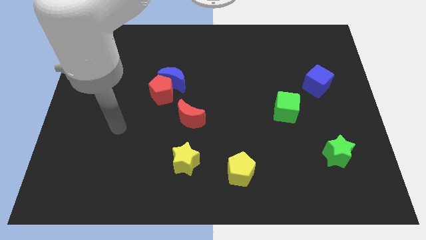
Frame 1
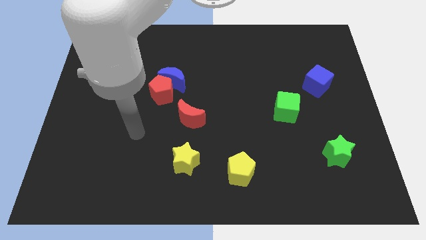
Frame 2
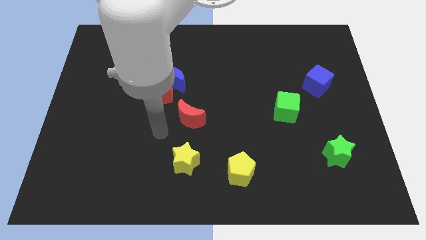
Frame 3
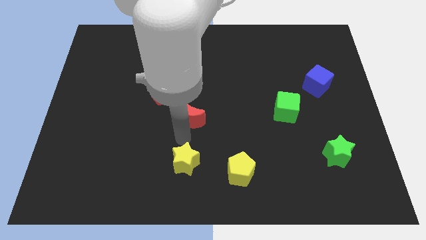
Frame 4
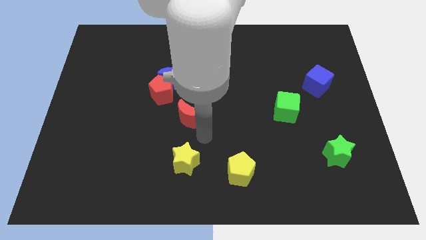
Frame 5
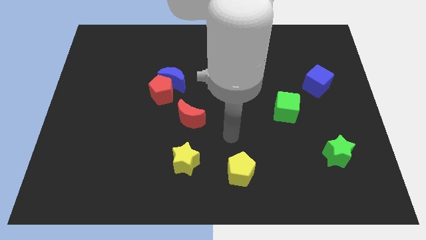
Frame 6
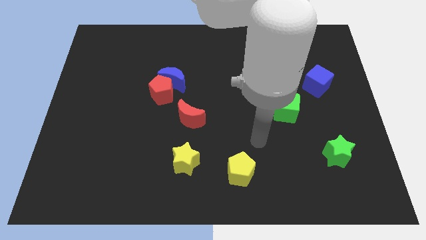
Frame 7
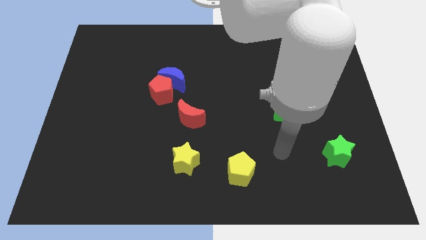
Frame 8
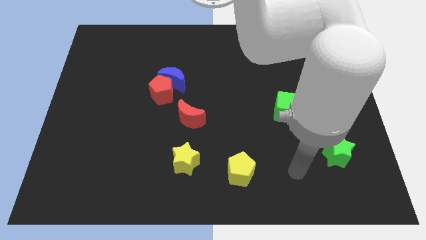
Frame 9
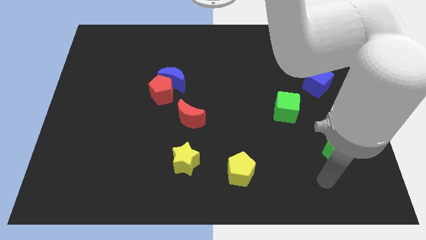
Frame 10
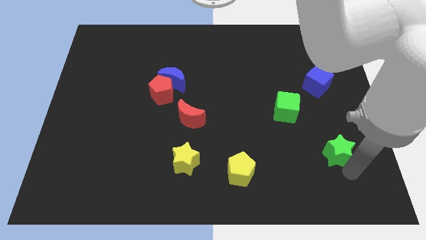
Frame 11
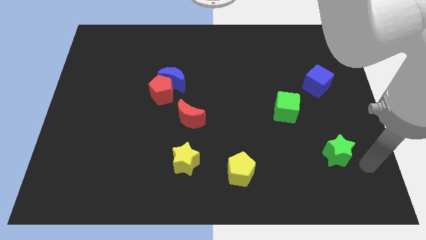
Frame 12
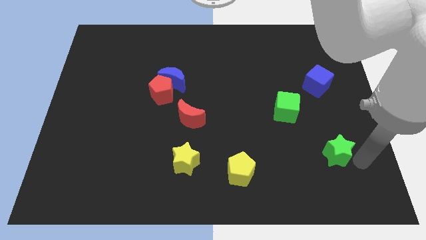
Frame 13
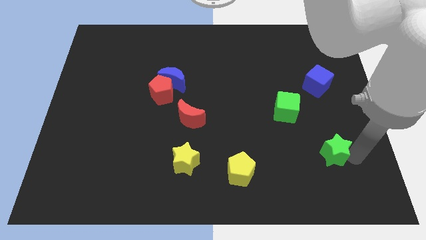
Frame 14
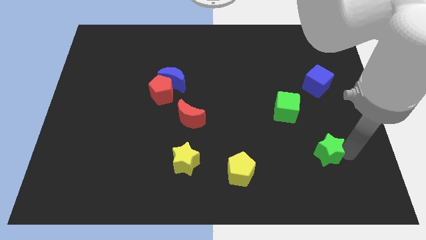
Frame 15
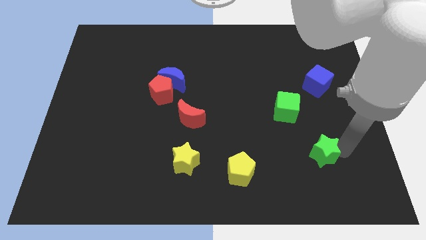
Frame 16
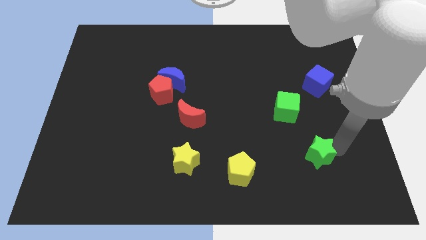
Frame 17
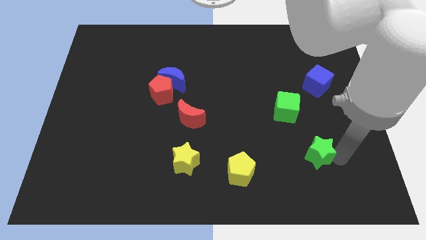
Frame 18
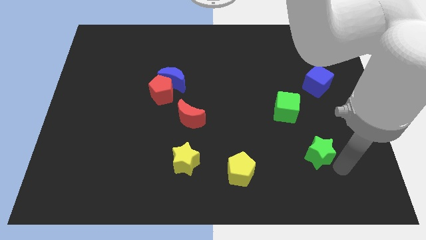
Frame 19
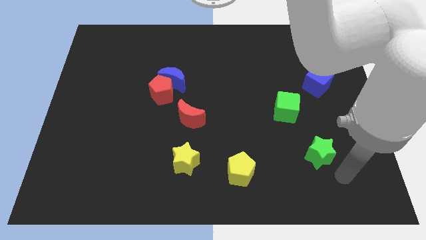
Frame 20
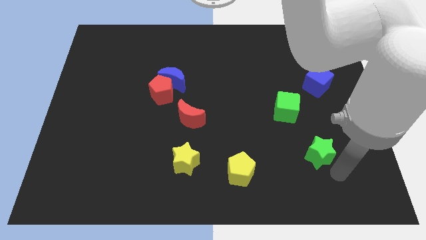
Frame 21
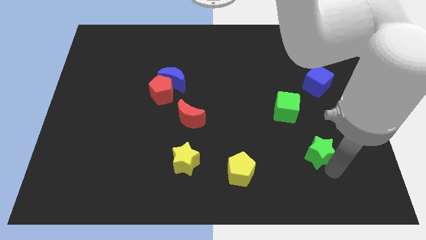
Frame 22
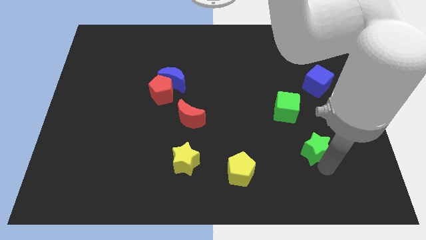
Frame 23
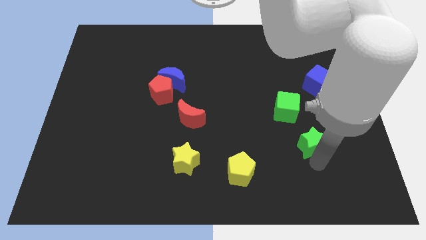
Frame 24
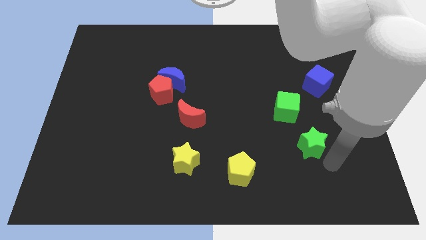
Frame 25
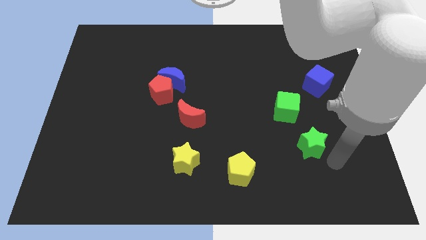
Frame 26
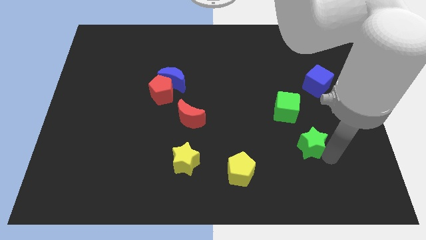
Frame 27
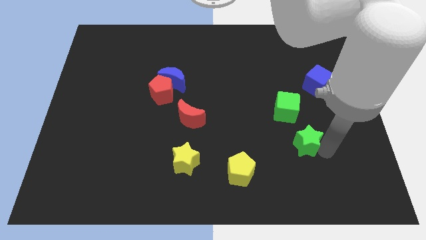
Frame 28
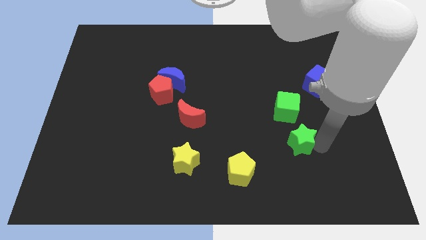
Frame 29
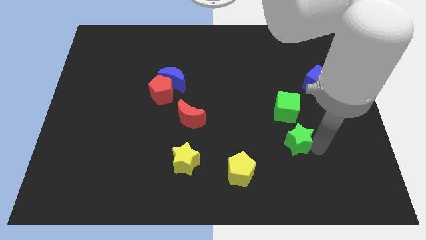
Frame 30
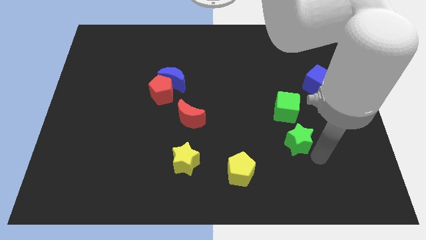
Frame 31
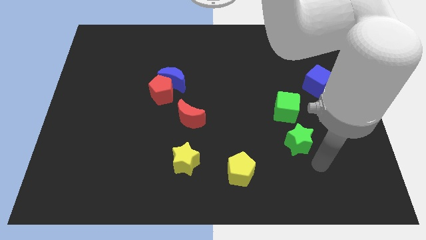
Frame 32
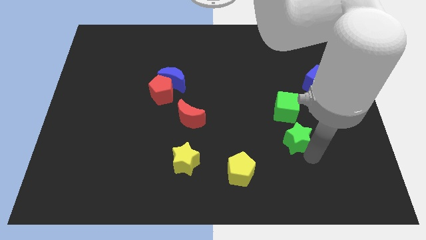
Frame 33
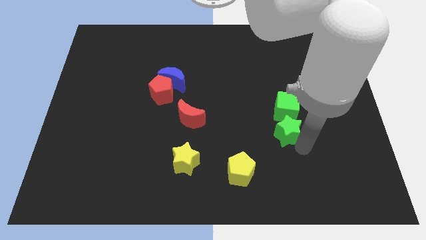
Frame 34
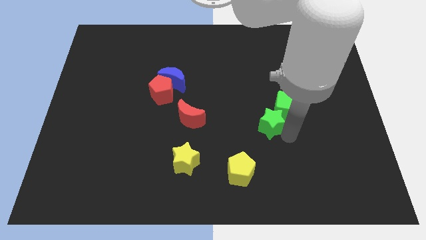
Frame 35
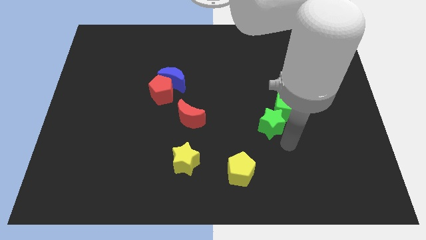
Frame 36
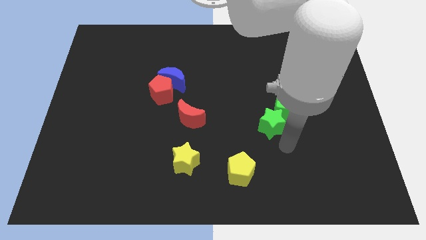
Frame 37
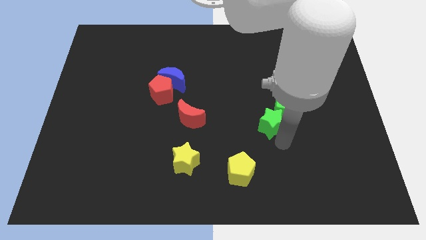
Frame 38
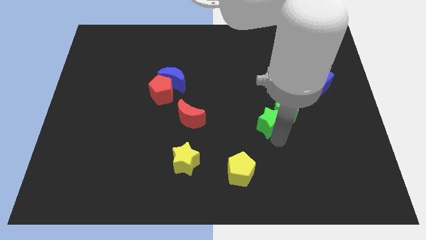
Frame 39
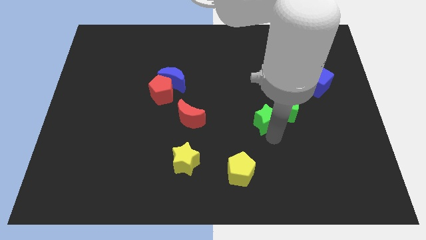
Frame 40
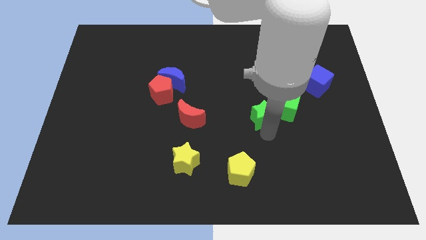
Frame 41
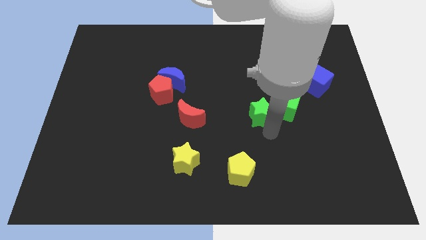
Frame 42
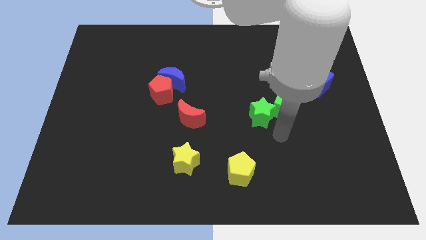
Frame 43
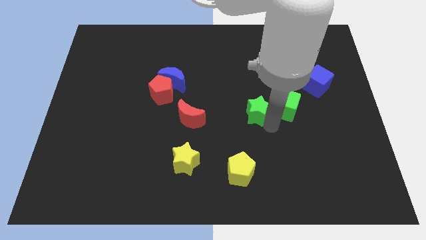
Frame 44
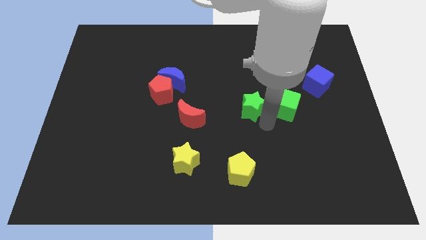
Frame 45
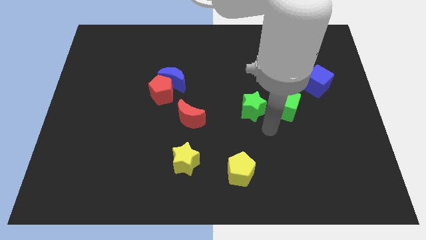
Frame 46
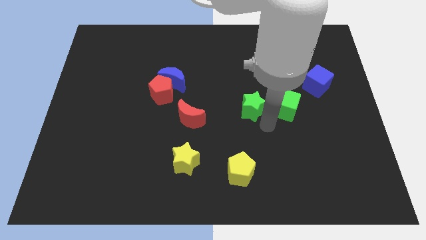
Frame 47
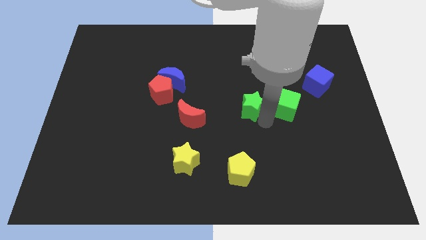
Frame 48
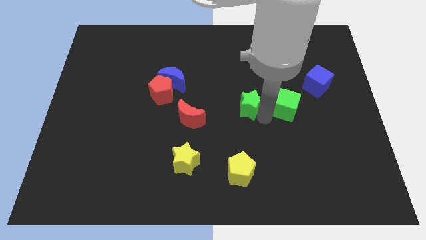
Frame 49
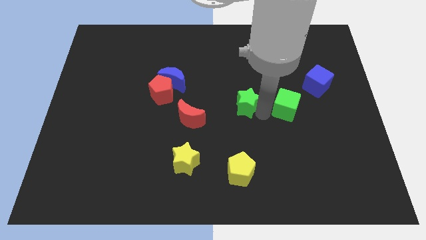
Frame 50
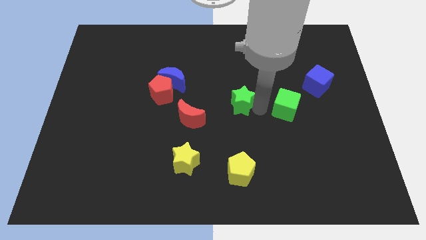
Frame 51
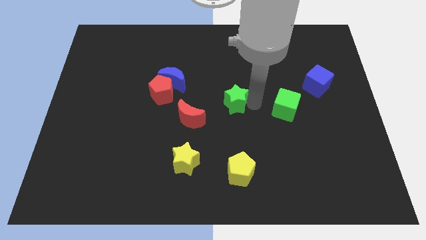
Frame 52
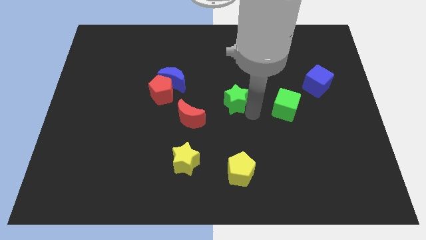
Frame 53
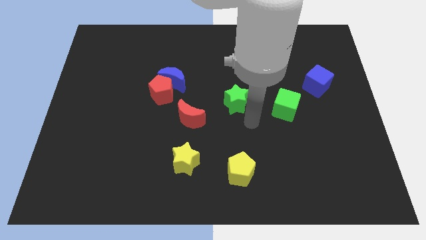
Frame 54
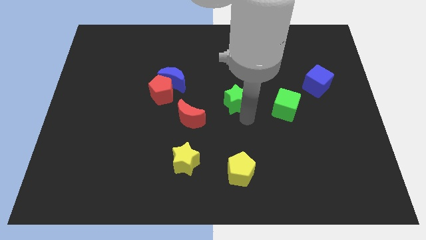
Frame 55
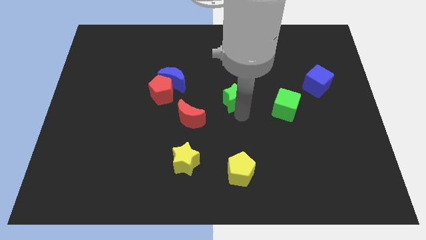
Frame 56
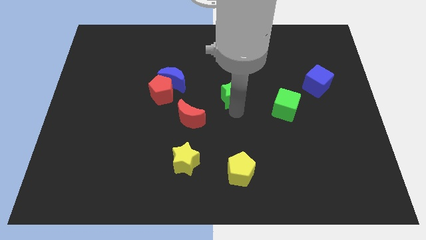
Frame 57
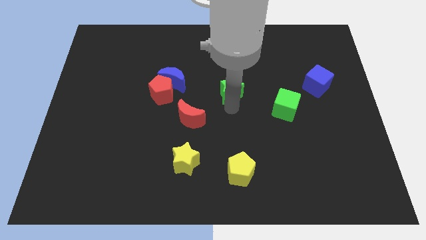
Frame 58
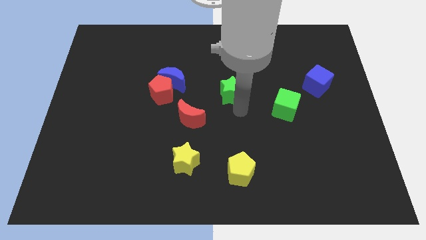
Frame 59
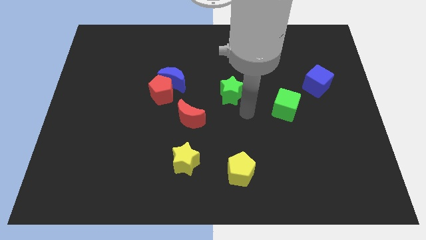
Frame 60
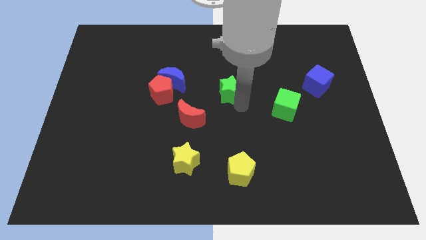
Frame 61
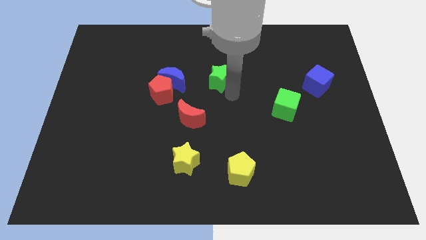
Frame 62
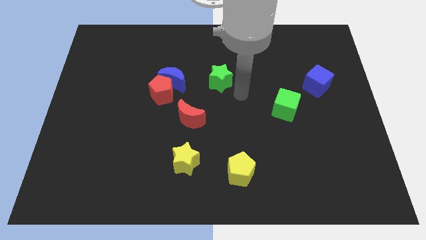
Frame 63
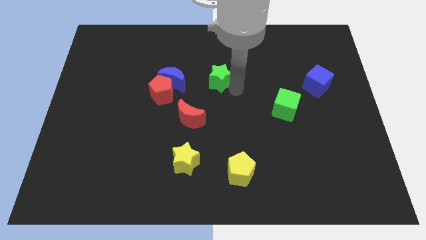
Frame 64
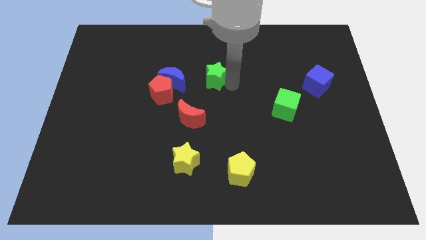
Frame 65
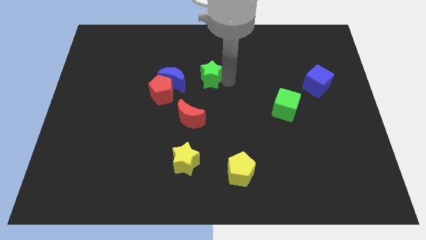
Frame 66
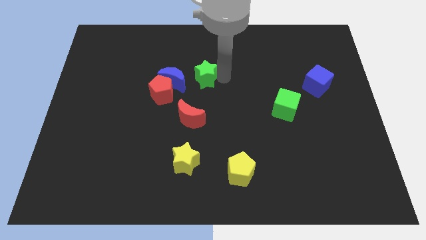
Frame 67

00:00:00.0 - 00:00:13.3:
slide the green star to the top right side of the blue moon

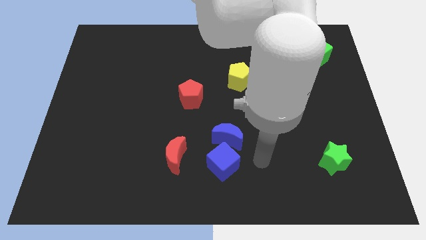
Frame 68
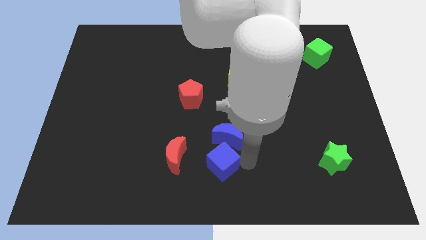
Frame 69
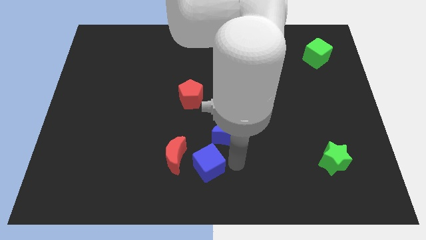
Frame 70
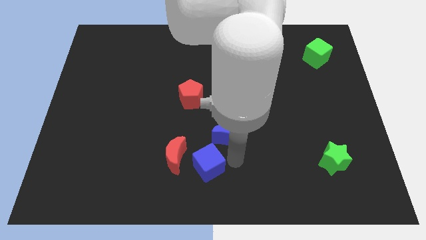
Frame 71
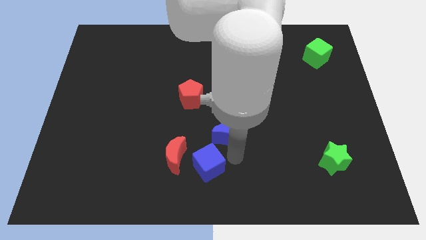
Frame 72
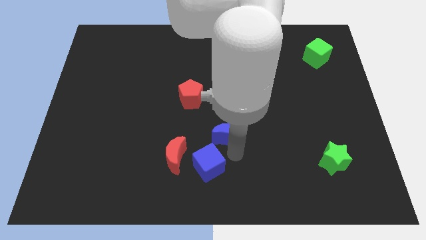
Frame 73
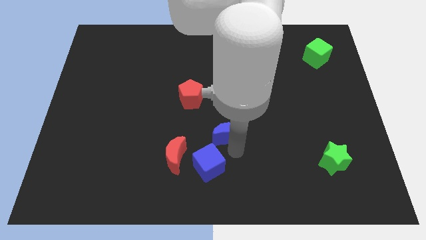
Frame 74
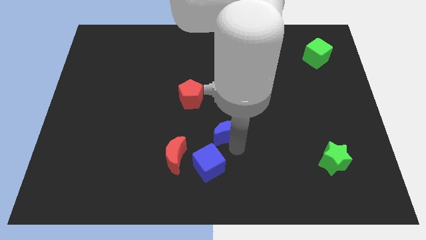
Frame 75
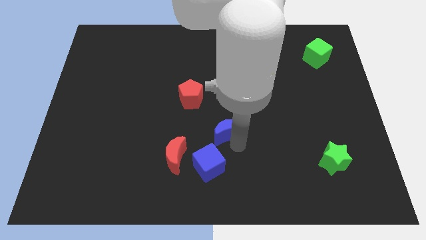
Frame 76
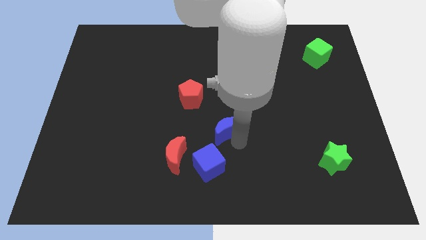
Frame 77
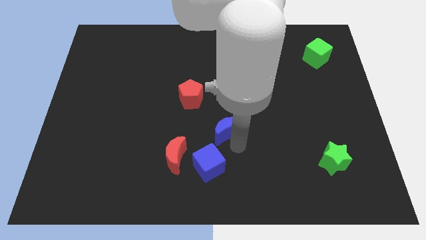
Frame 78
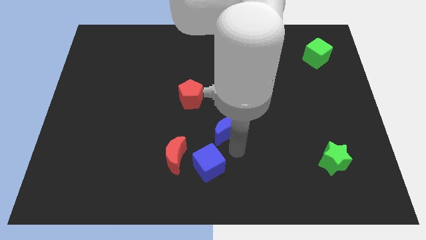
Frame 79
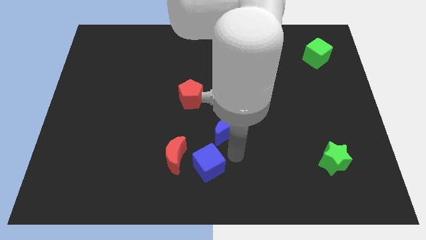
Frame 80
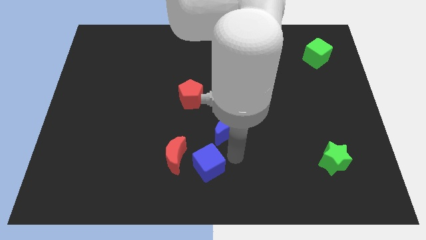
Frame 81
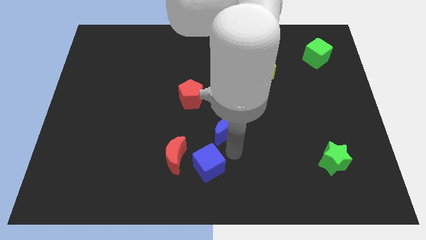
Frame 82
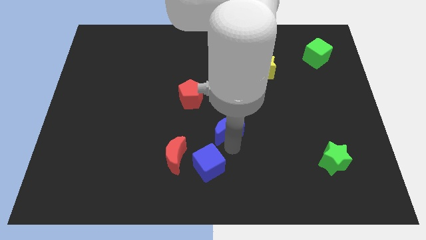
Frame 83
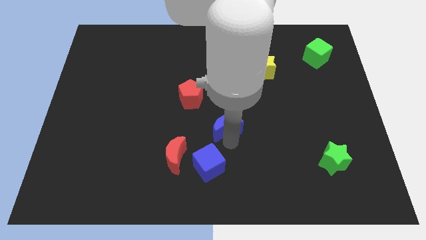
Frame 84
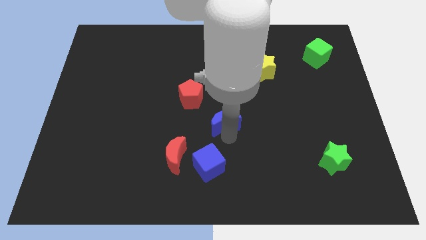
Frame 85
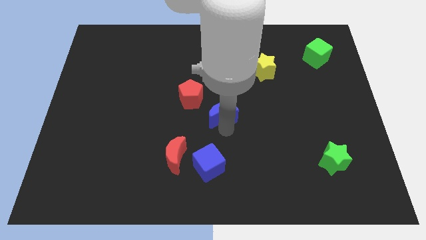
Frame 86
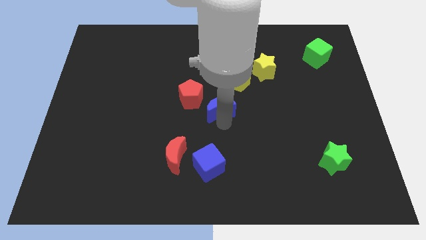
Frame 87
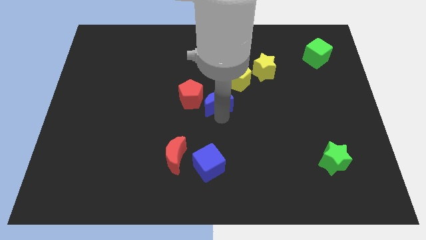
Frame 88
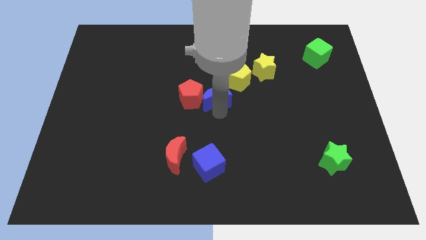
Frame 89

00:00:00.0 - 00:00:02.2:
put the blue moon diagonally up and to the right of the red pentagon
